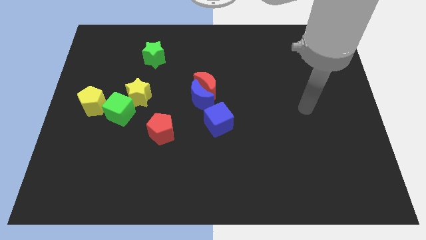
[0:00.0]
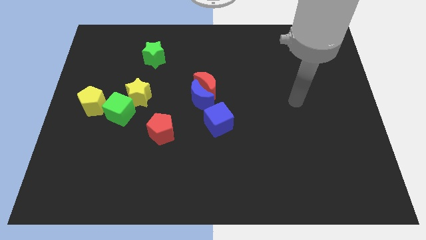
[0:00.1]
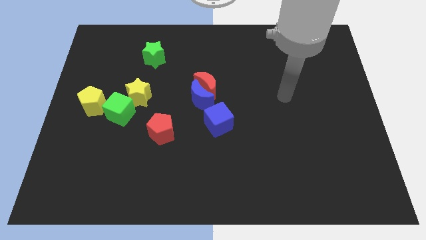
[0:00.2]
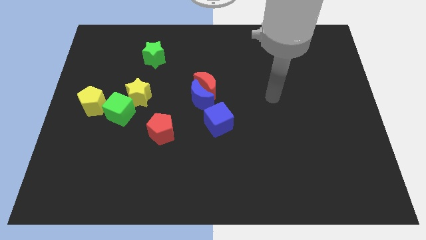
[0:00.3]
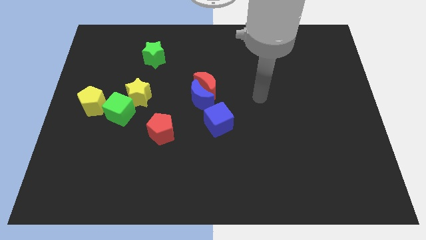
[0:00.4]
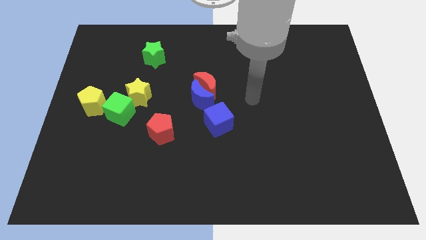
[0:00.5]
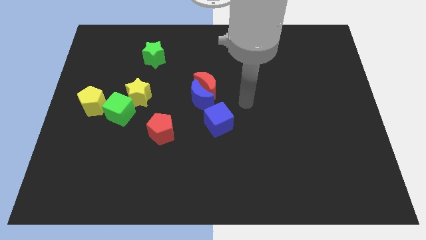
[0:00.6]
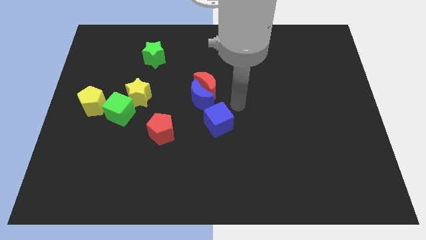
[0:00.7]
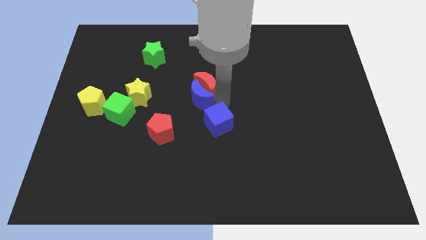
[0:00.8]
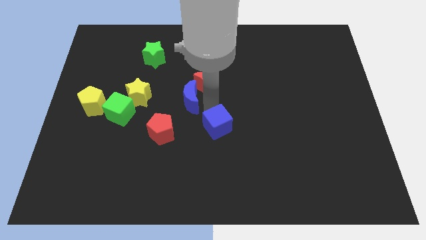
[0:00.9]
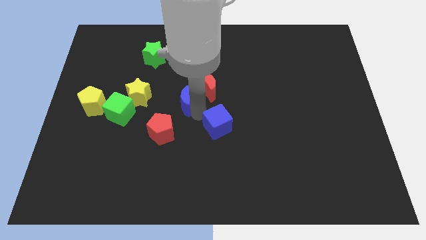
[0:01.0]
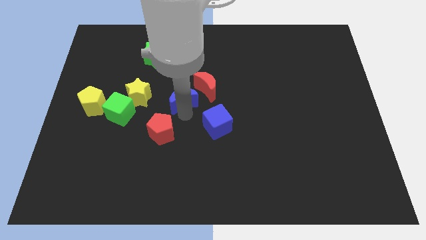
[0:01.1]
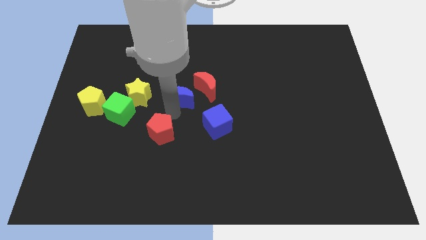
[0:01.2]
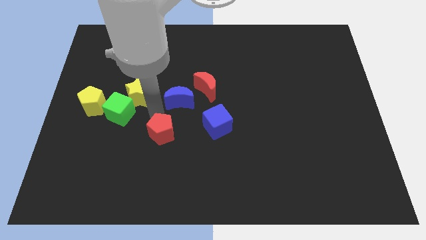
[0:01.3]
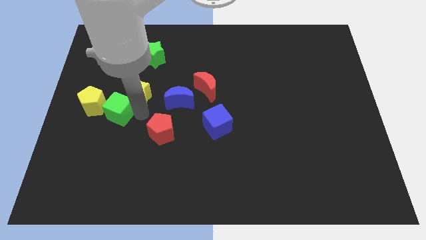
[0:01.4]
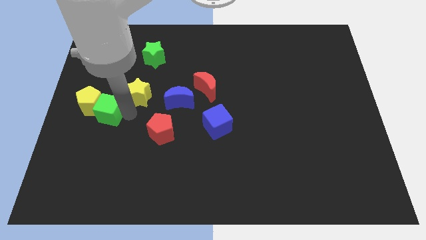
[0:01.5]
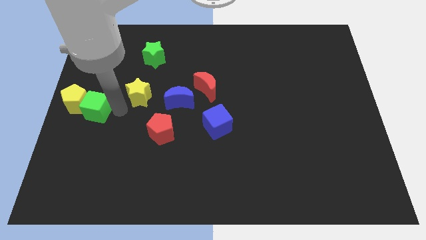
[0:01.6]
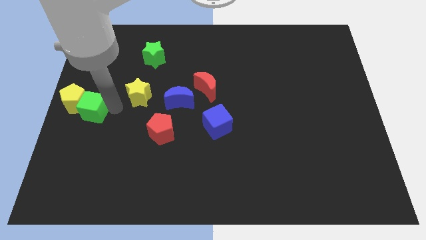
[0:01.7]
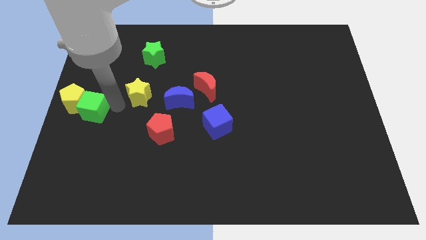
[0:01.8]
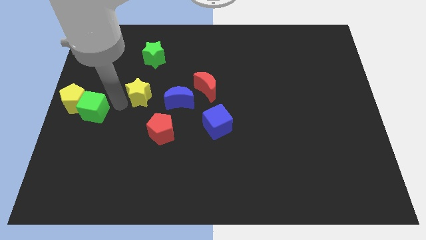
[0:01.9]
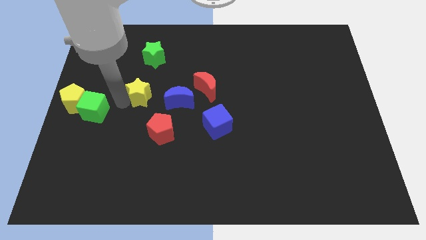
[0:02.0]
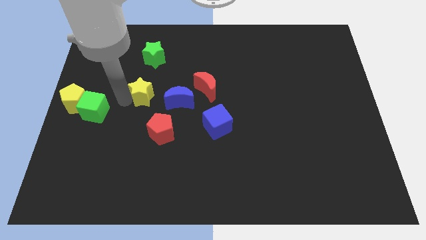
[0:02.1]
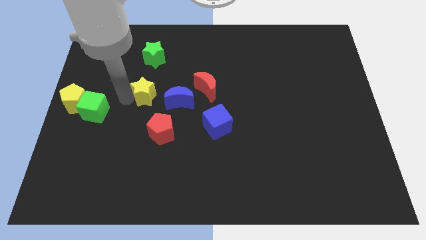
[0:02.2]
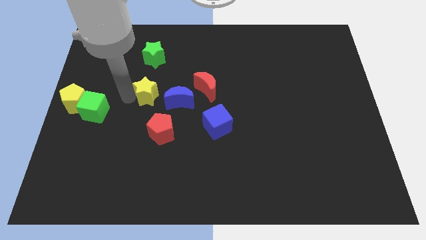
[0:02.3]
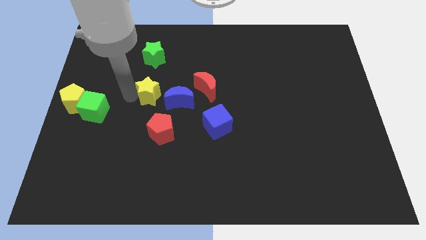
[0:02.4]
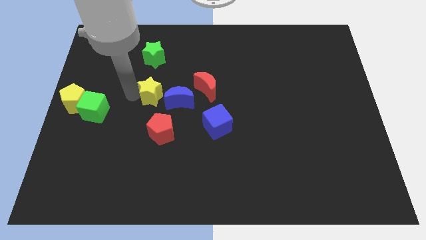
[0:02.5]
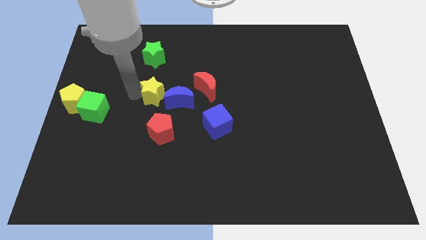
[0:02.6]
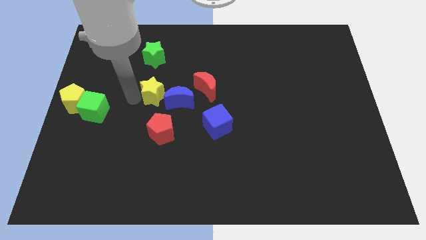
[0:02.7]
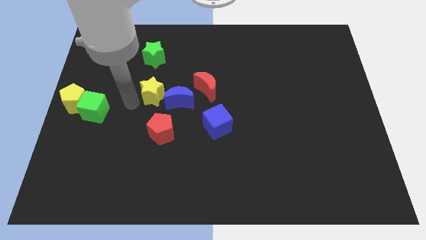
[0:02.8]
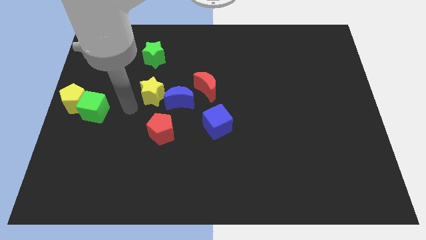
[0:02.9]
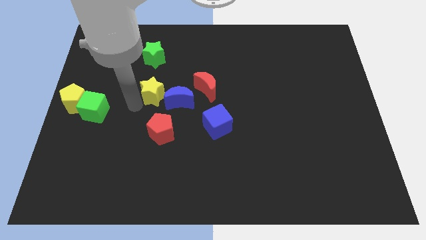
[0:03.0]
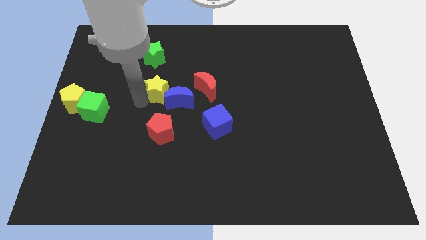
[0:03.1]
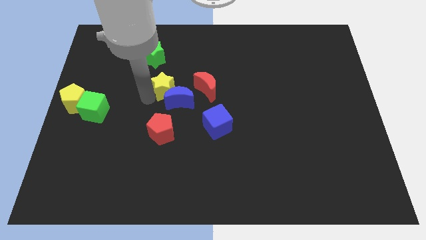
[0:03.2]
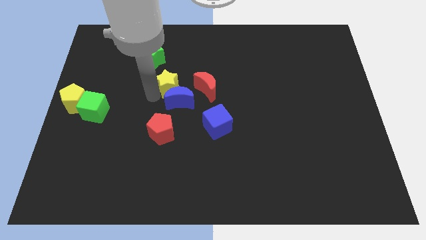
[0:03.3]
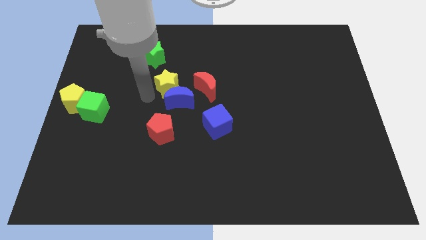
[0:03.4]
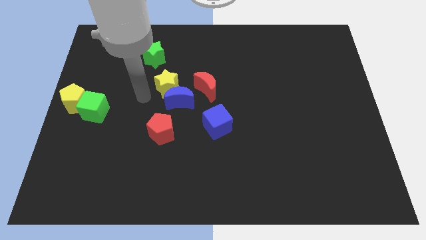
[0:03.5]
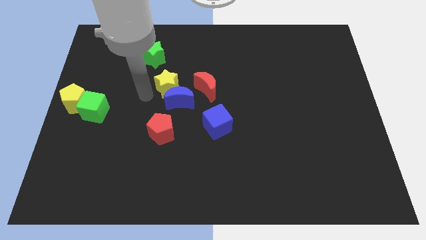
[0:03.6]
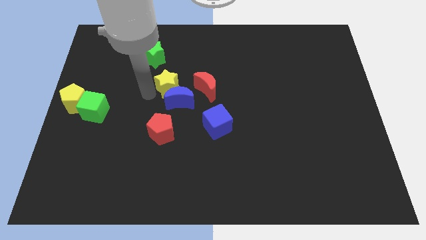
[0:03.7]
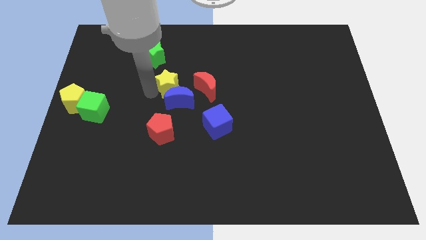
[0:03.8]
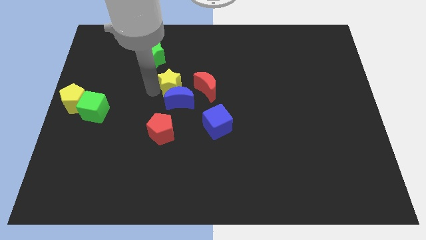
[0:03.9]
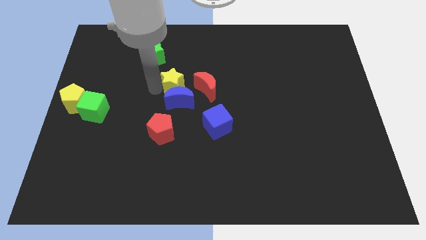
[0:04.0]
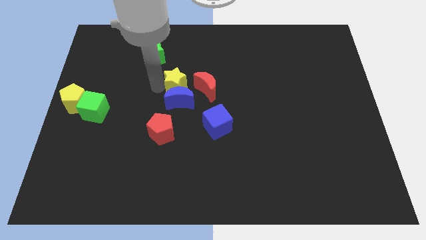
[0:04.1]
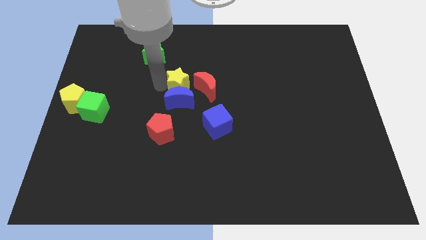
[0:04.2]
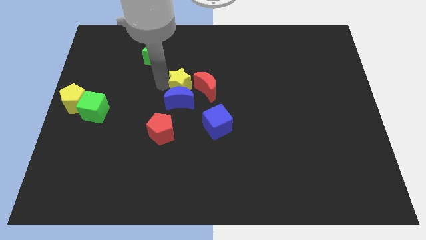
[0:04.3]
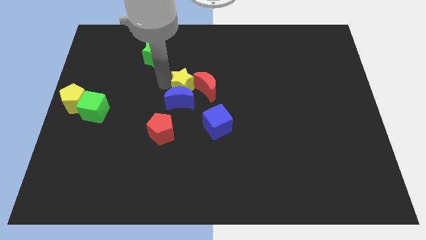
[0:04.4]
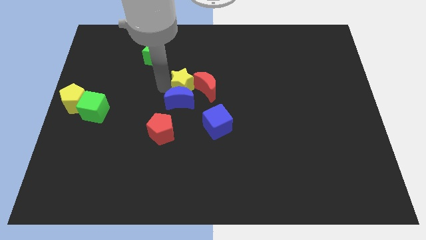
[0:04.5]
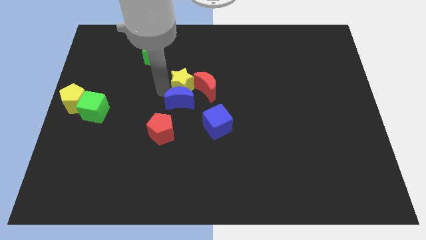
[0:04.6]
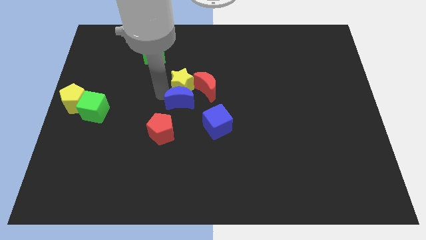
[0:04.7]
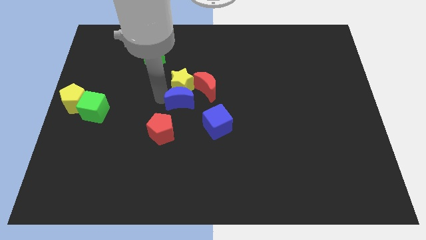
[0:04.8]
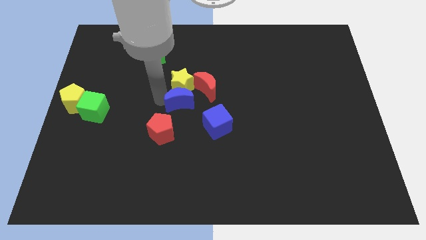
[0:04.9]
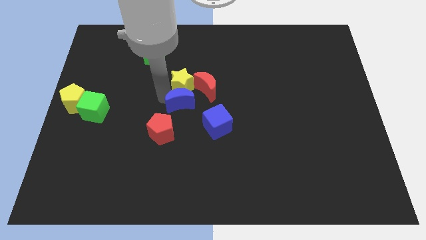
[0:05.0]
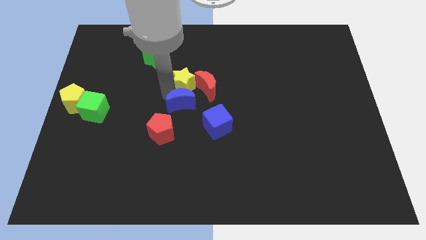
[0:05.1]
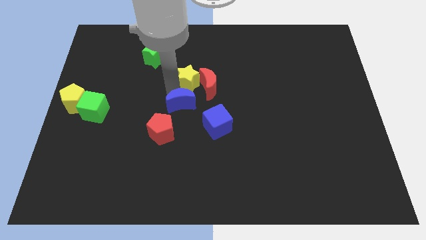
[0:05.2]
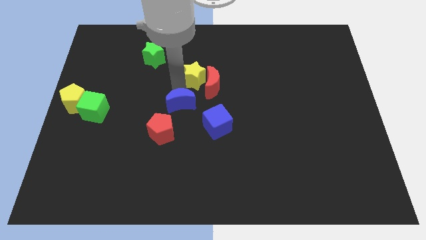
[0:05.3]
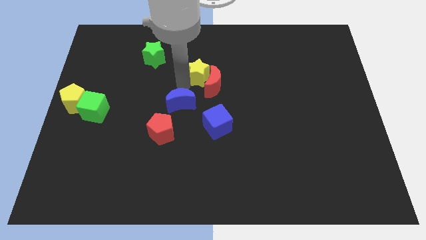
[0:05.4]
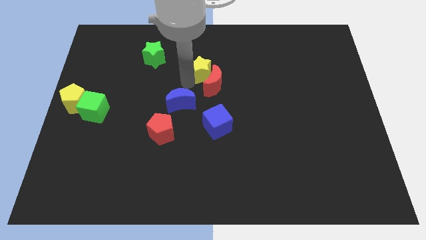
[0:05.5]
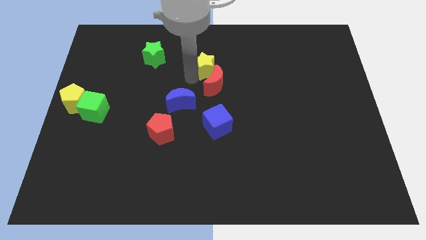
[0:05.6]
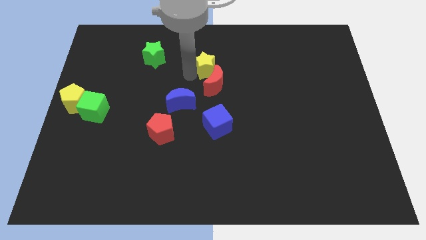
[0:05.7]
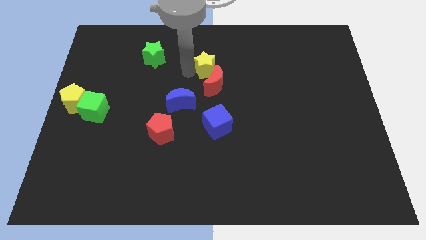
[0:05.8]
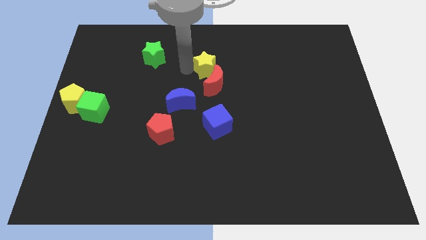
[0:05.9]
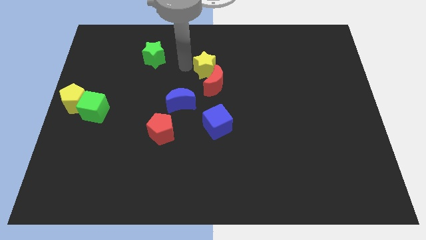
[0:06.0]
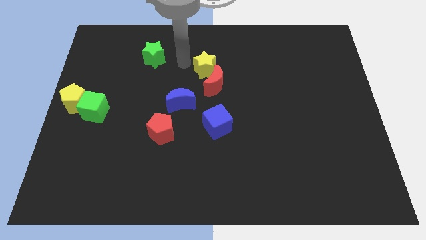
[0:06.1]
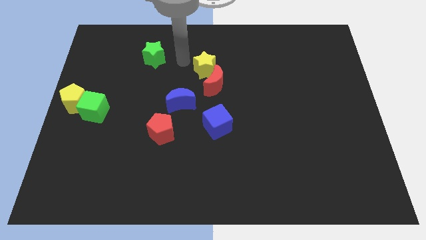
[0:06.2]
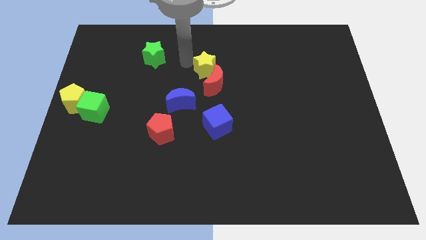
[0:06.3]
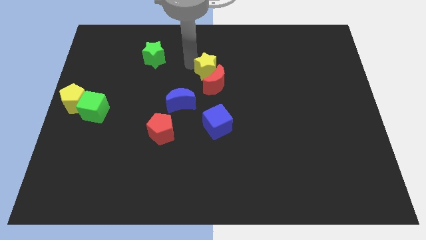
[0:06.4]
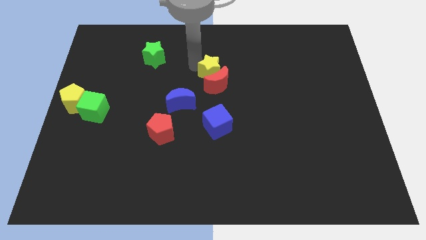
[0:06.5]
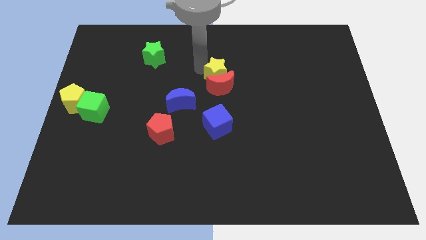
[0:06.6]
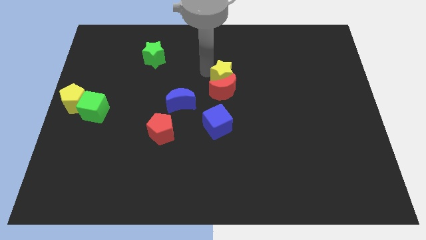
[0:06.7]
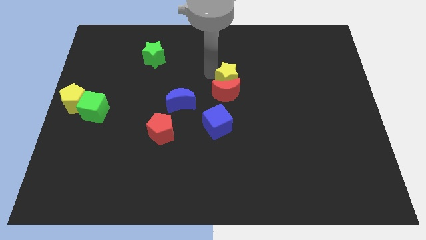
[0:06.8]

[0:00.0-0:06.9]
push the yellow star to the right

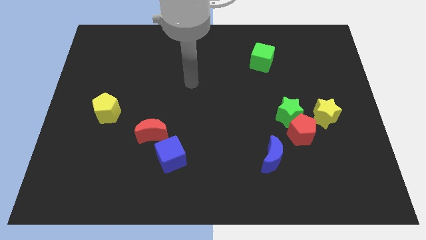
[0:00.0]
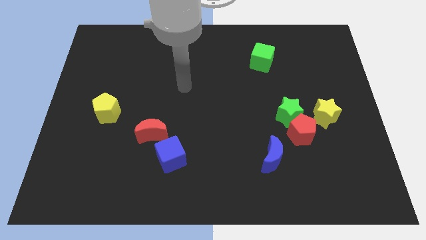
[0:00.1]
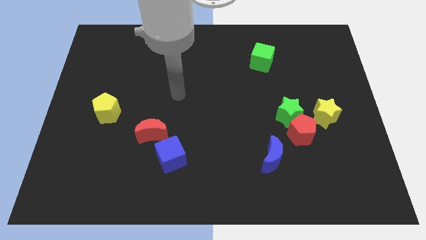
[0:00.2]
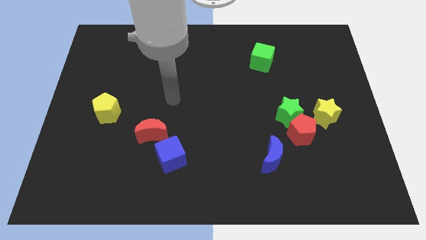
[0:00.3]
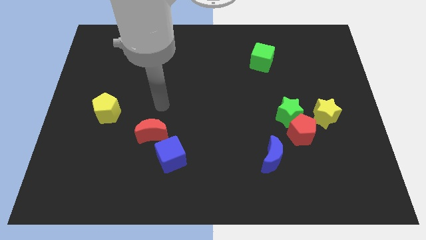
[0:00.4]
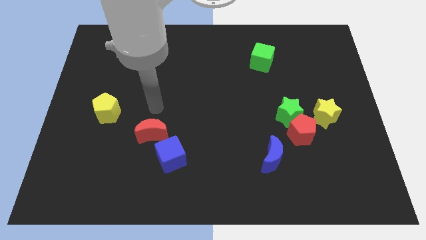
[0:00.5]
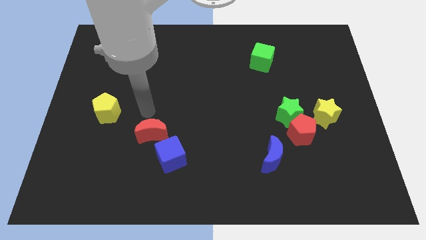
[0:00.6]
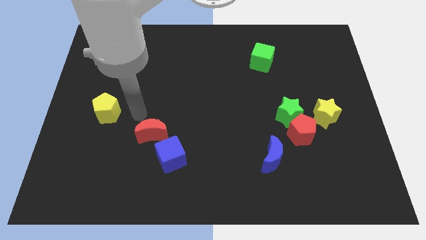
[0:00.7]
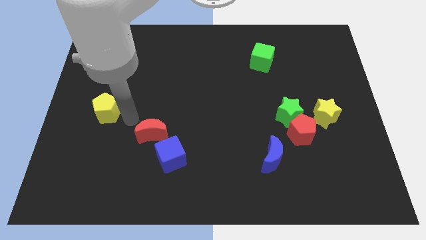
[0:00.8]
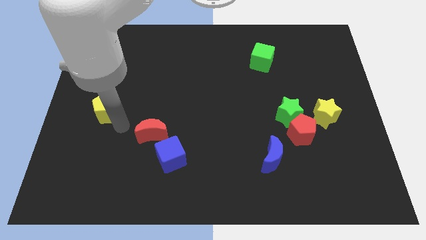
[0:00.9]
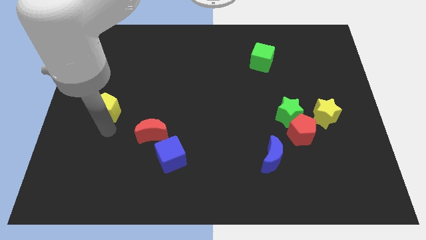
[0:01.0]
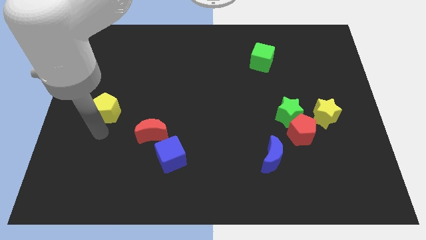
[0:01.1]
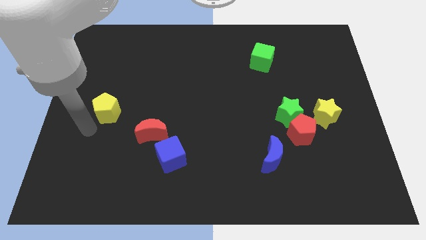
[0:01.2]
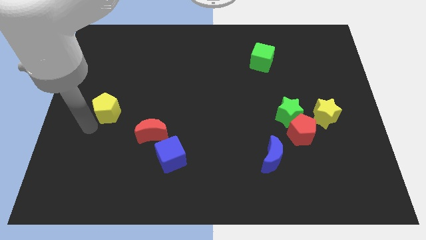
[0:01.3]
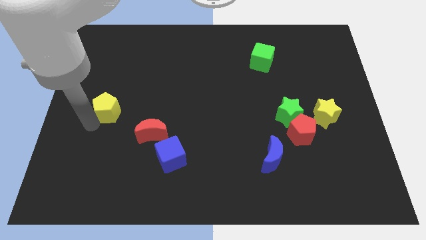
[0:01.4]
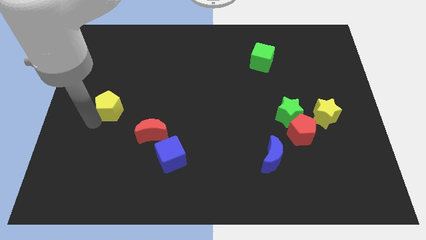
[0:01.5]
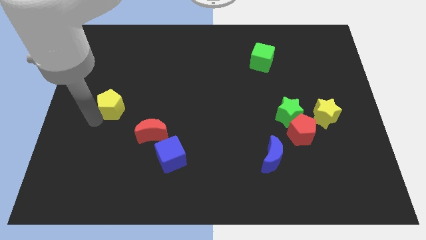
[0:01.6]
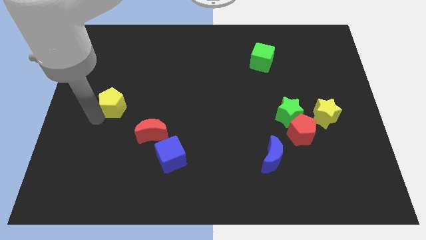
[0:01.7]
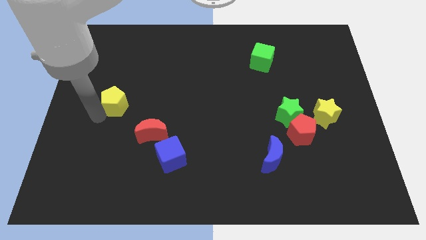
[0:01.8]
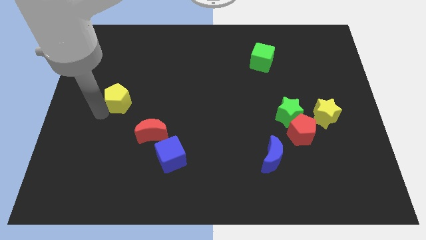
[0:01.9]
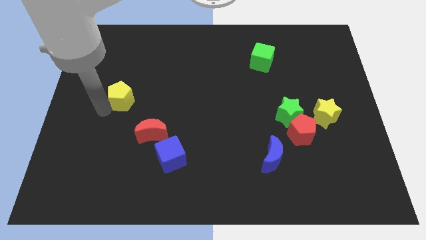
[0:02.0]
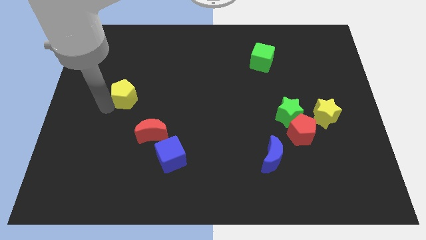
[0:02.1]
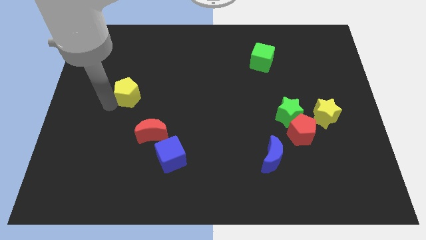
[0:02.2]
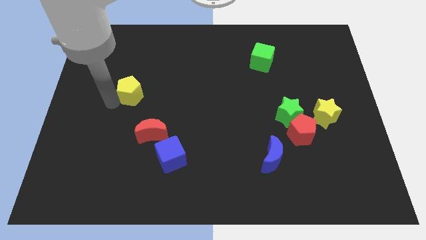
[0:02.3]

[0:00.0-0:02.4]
push the yellow pentagon a bit diagonally up and to the right
